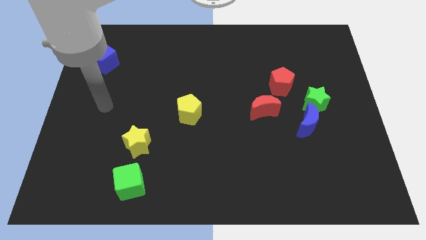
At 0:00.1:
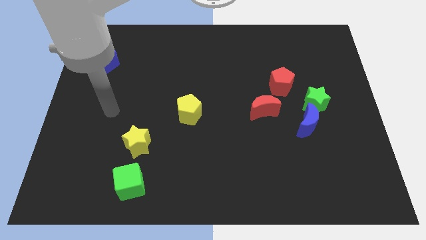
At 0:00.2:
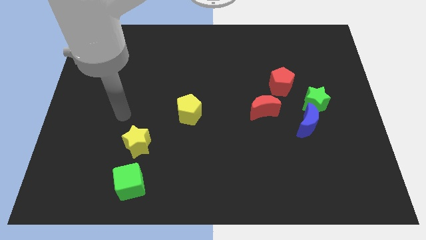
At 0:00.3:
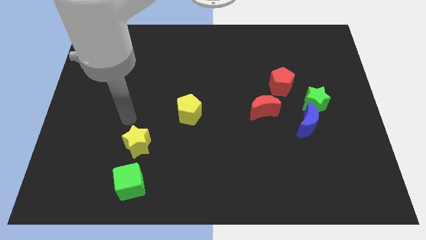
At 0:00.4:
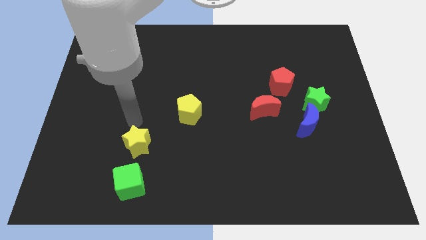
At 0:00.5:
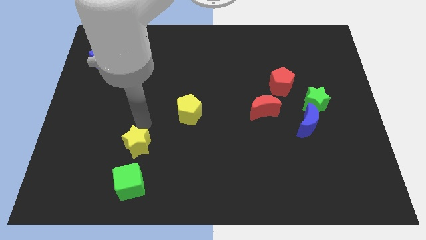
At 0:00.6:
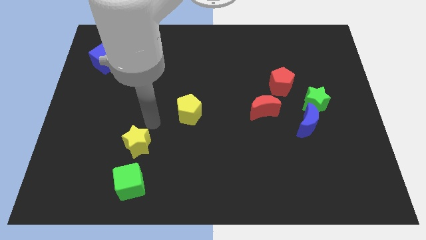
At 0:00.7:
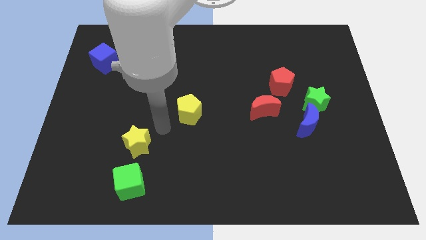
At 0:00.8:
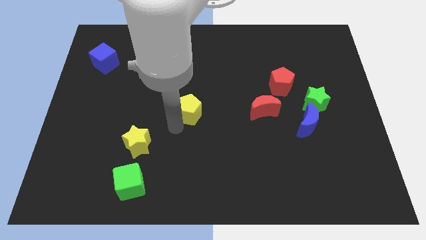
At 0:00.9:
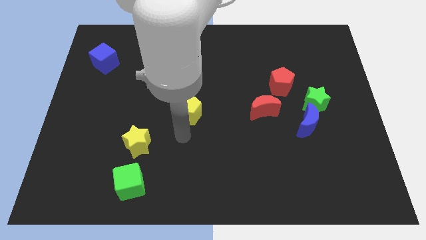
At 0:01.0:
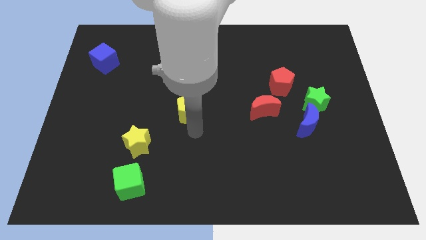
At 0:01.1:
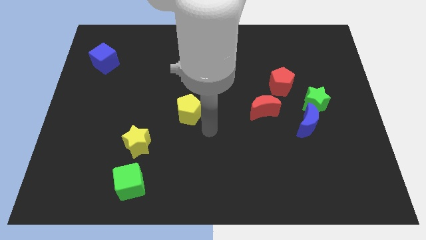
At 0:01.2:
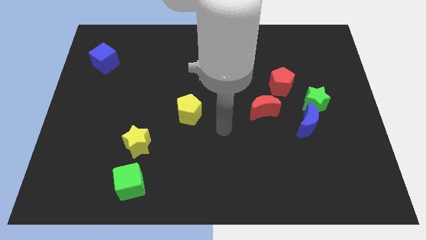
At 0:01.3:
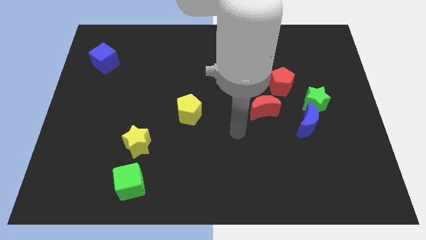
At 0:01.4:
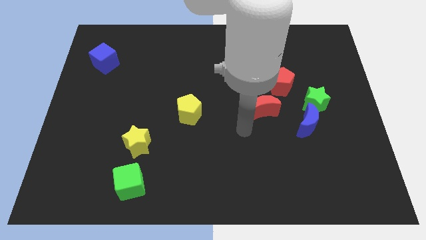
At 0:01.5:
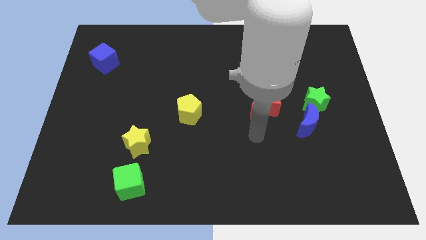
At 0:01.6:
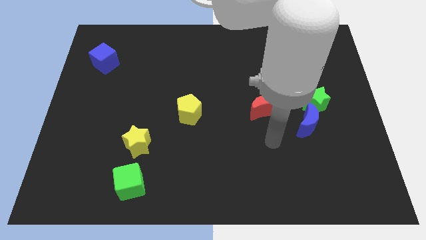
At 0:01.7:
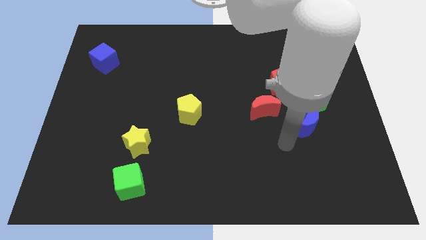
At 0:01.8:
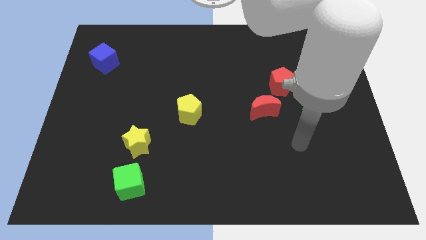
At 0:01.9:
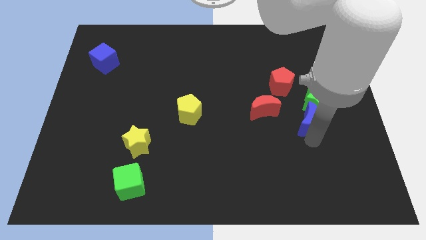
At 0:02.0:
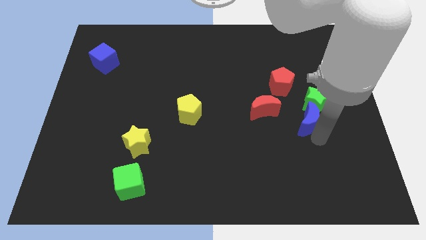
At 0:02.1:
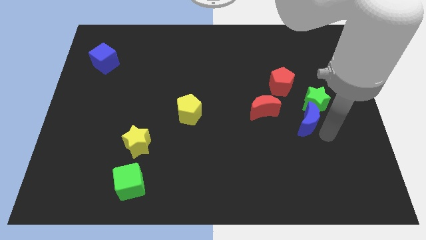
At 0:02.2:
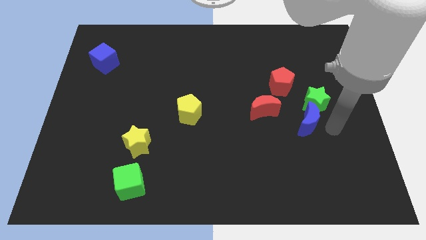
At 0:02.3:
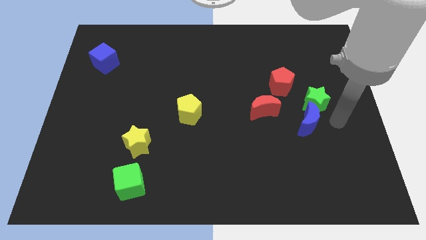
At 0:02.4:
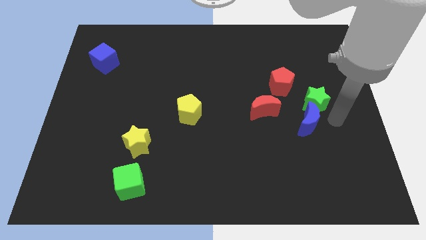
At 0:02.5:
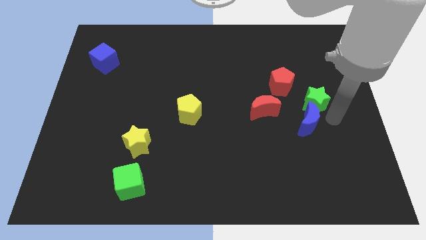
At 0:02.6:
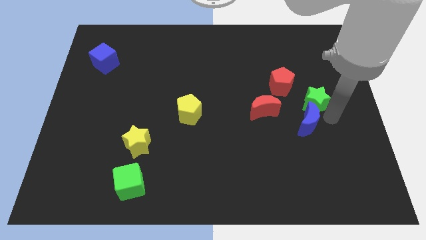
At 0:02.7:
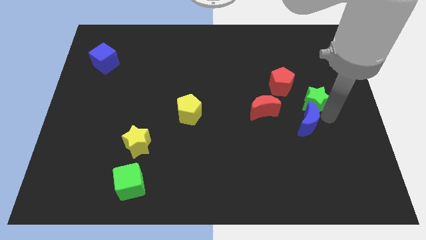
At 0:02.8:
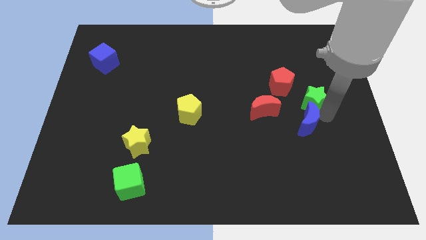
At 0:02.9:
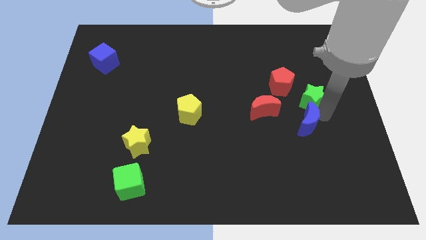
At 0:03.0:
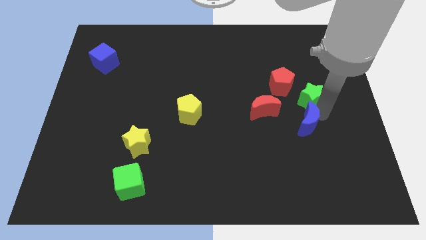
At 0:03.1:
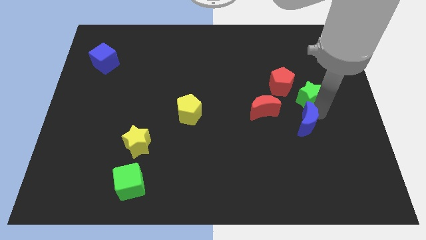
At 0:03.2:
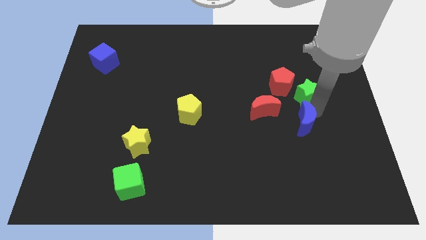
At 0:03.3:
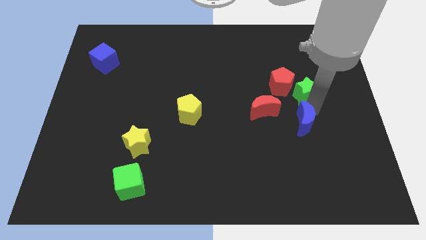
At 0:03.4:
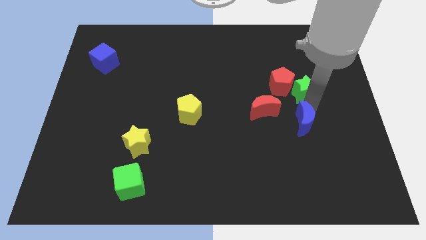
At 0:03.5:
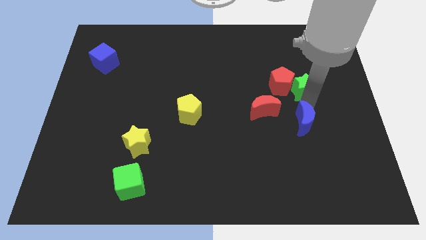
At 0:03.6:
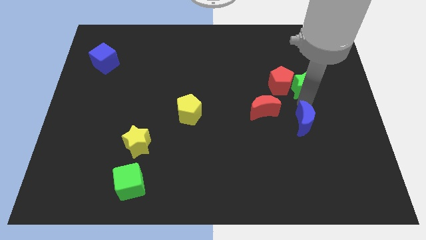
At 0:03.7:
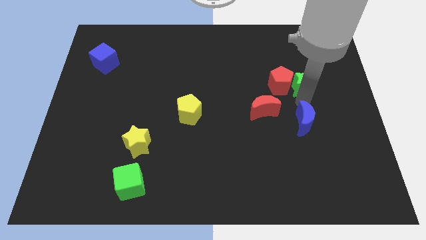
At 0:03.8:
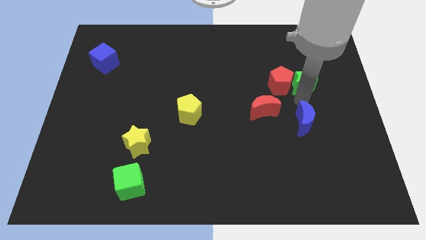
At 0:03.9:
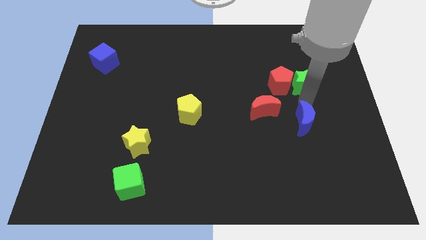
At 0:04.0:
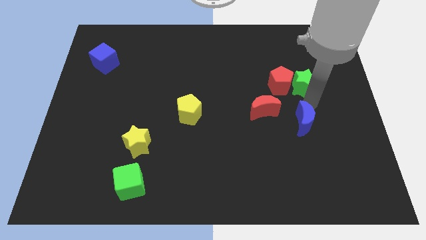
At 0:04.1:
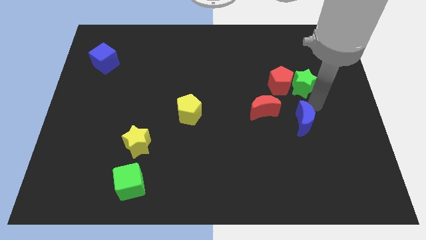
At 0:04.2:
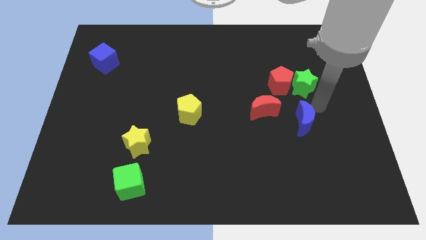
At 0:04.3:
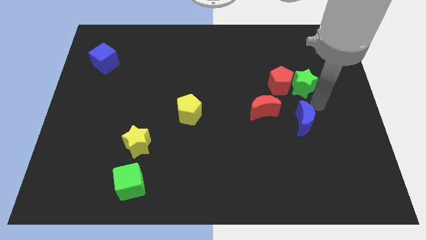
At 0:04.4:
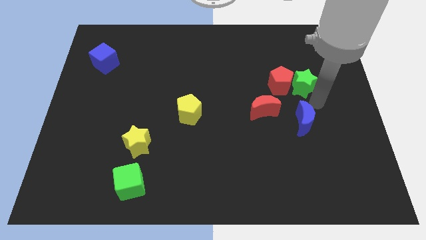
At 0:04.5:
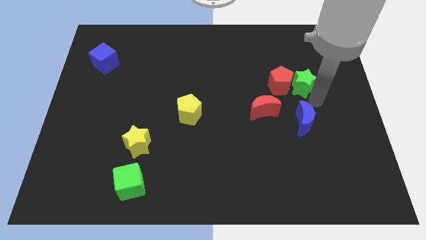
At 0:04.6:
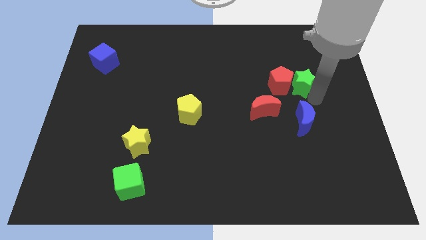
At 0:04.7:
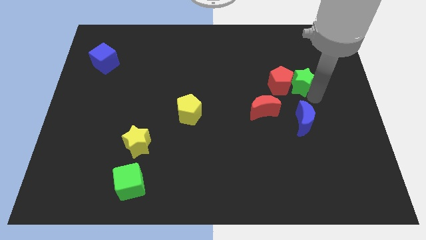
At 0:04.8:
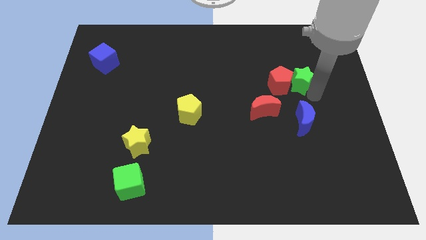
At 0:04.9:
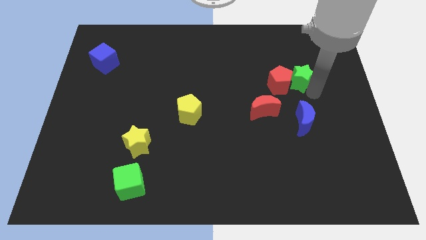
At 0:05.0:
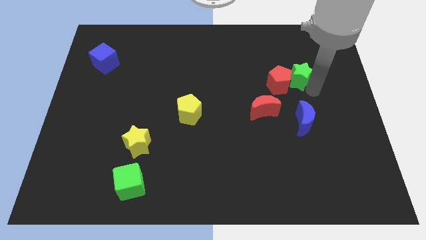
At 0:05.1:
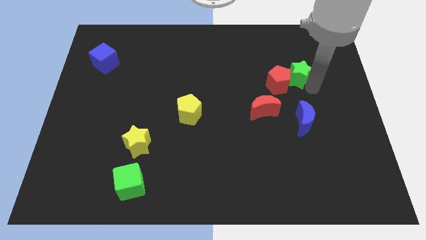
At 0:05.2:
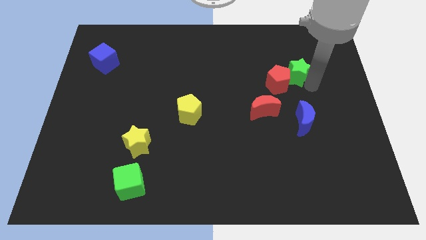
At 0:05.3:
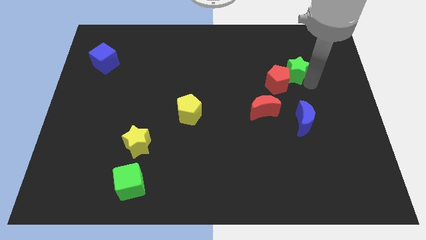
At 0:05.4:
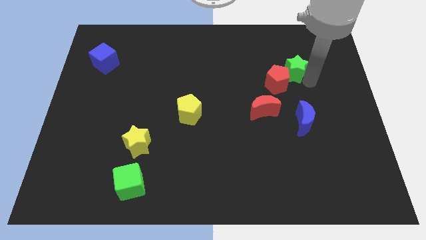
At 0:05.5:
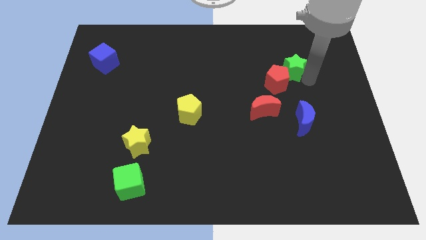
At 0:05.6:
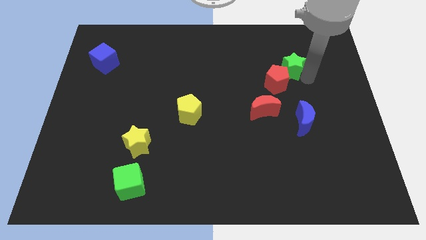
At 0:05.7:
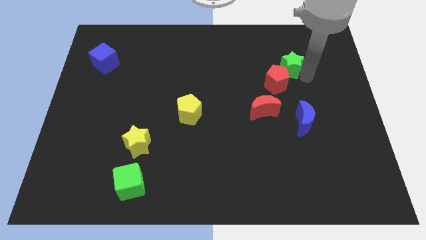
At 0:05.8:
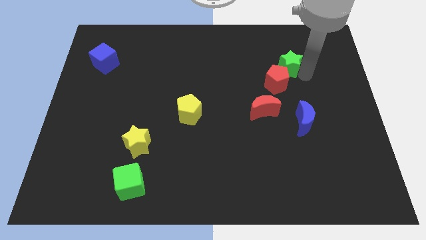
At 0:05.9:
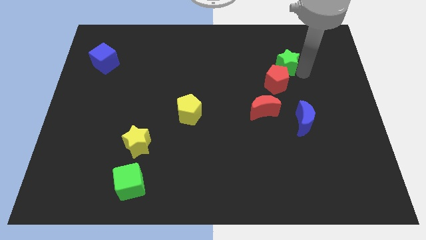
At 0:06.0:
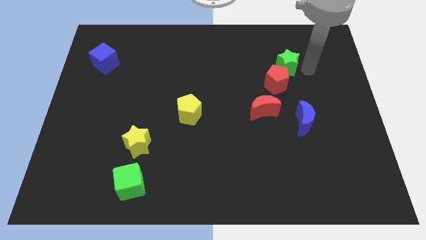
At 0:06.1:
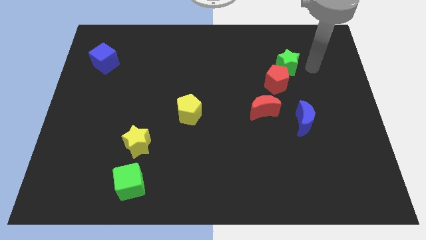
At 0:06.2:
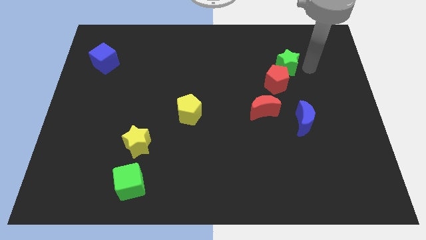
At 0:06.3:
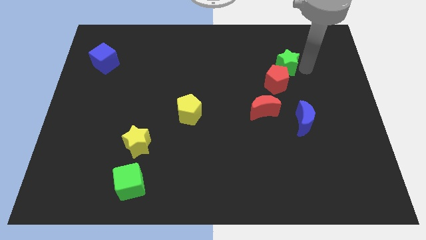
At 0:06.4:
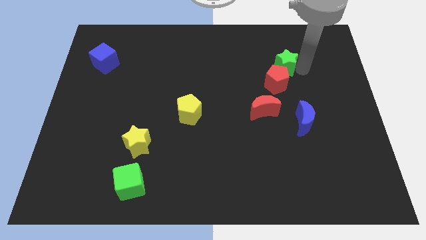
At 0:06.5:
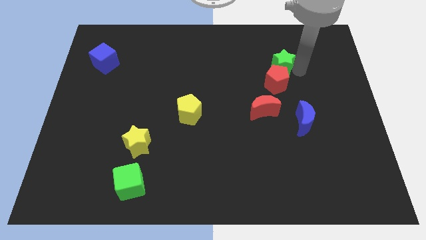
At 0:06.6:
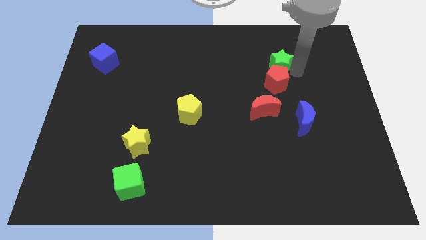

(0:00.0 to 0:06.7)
put the green star to the top left of the red pentagon

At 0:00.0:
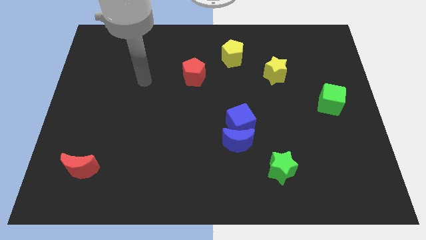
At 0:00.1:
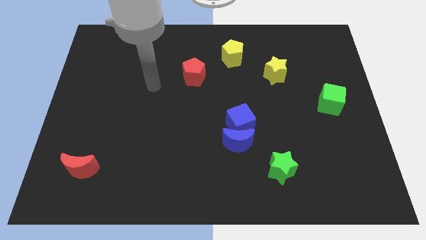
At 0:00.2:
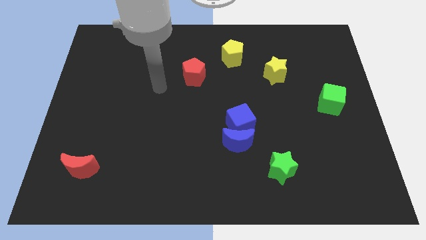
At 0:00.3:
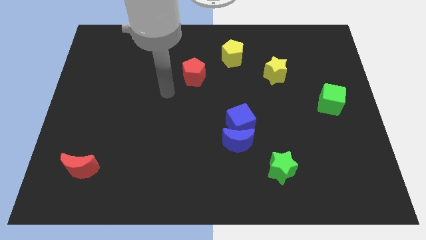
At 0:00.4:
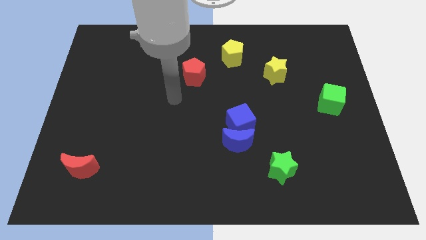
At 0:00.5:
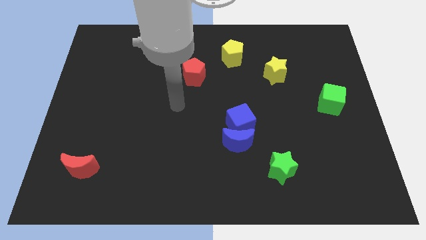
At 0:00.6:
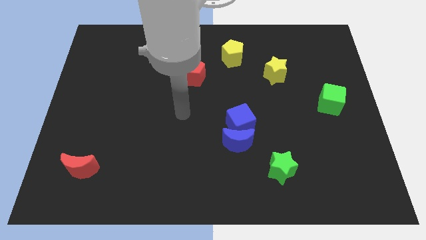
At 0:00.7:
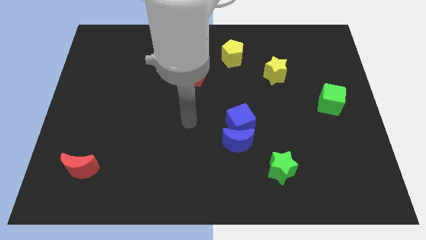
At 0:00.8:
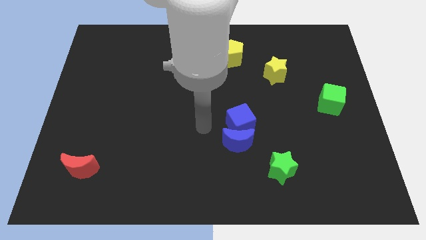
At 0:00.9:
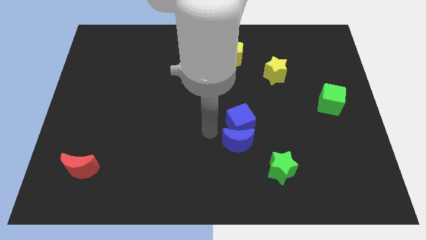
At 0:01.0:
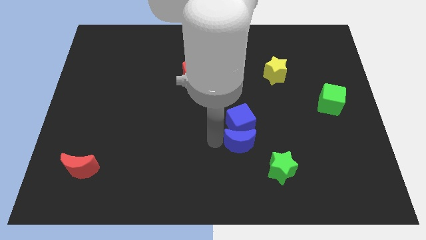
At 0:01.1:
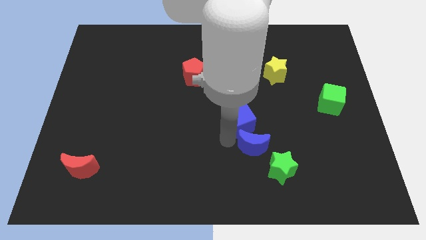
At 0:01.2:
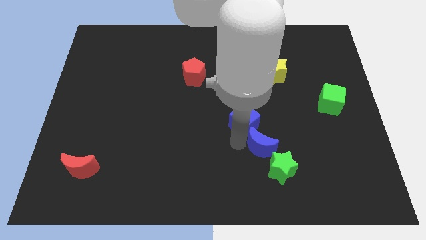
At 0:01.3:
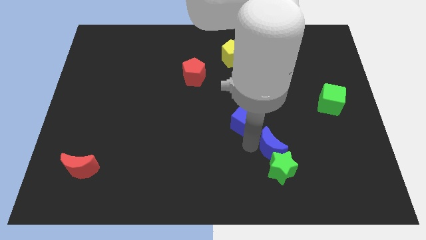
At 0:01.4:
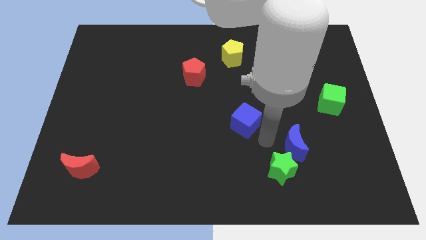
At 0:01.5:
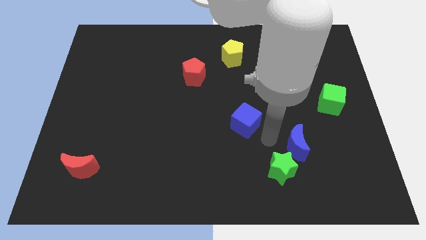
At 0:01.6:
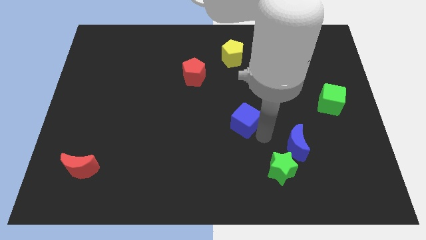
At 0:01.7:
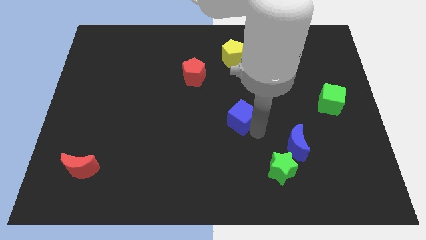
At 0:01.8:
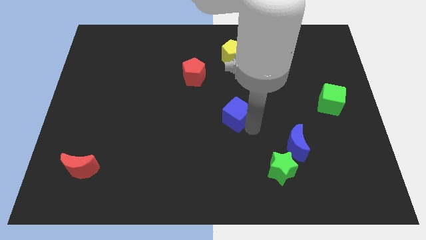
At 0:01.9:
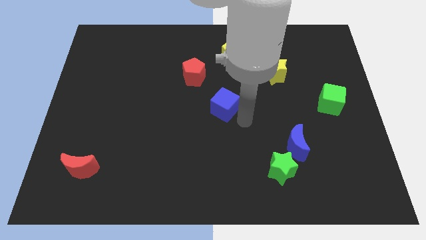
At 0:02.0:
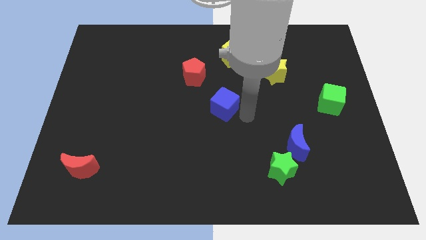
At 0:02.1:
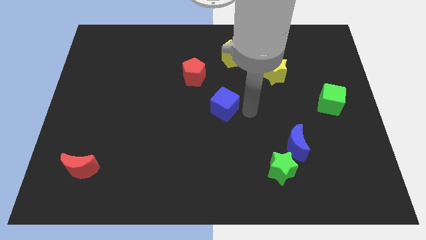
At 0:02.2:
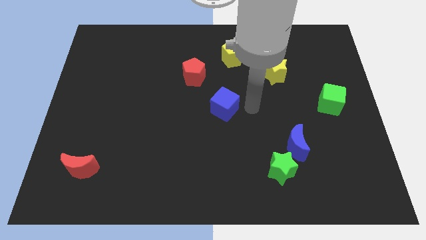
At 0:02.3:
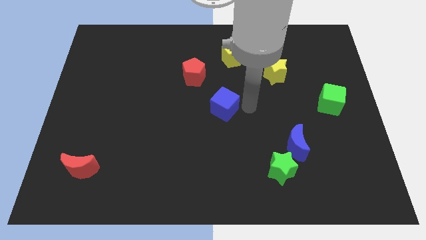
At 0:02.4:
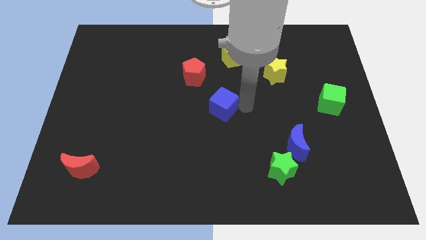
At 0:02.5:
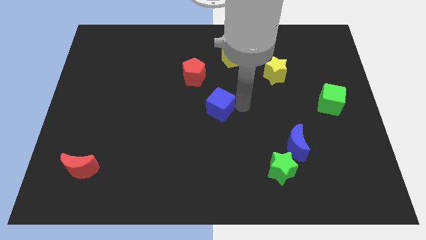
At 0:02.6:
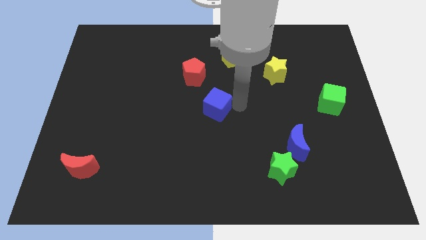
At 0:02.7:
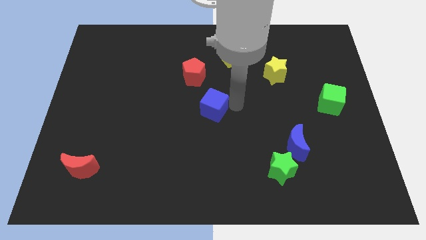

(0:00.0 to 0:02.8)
move the blue cube to the bottom of the red pentagon
